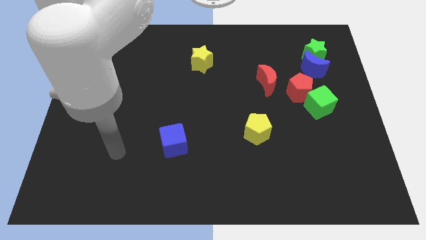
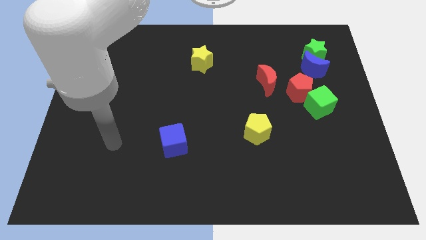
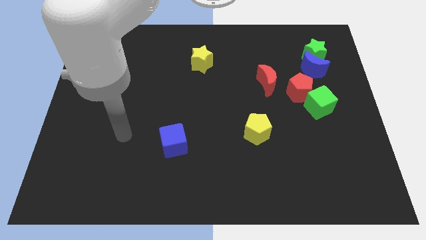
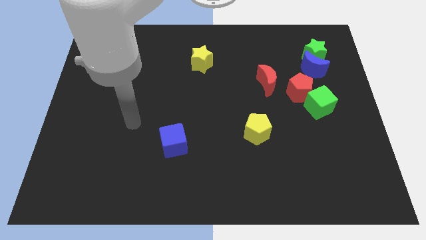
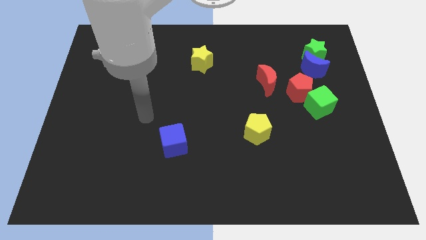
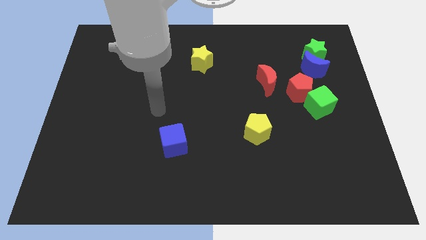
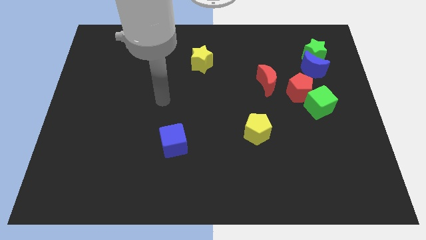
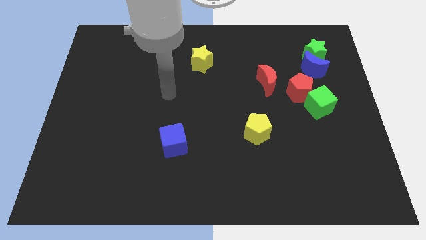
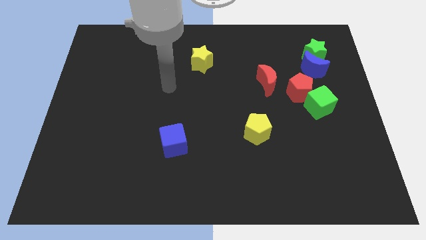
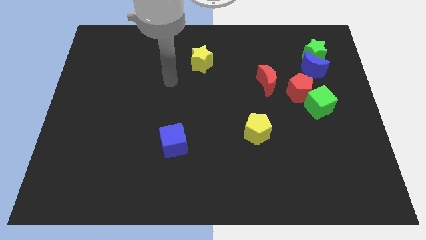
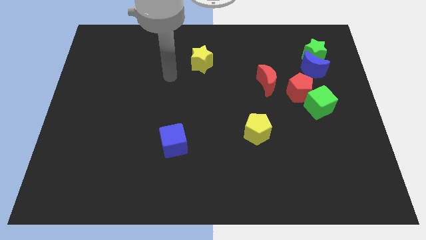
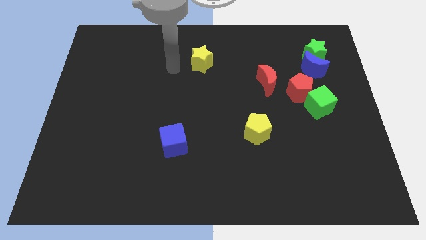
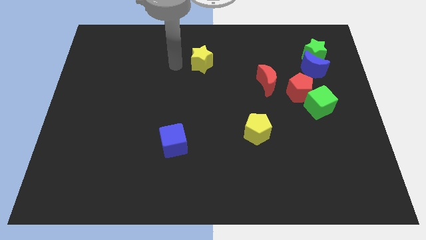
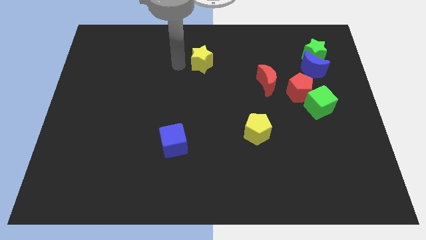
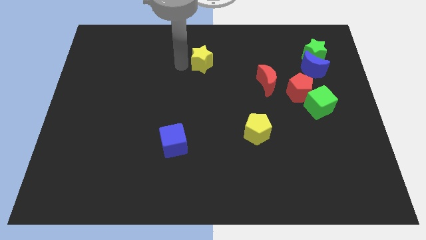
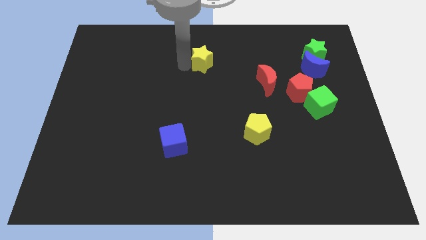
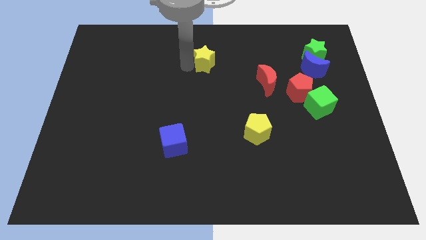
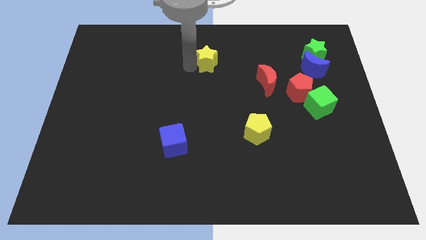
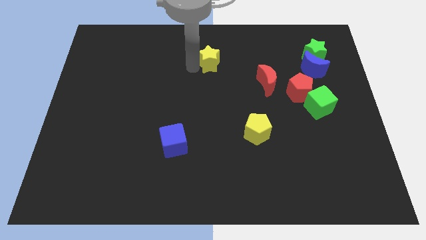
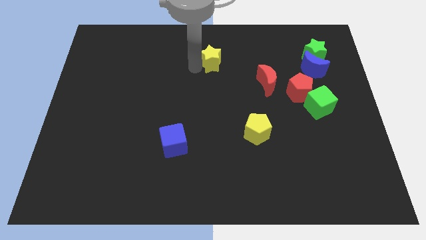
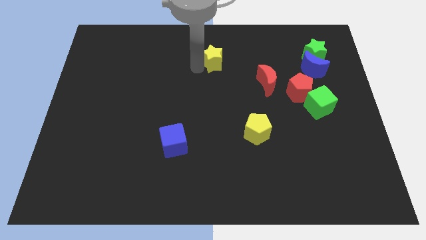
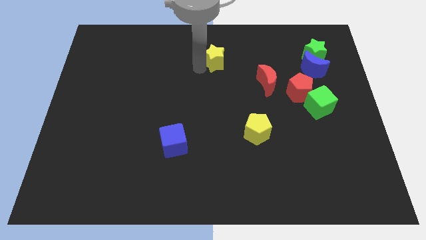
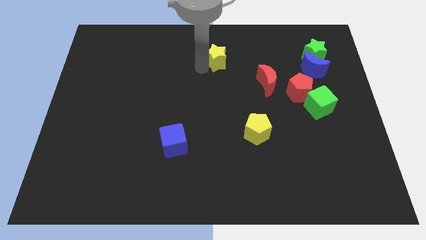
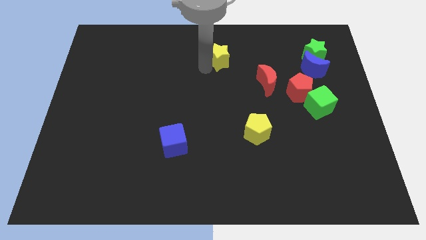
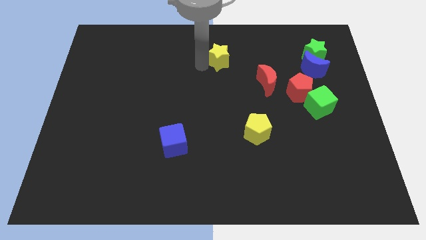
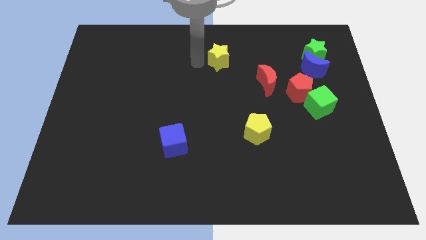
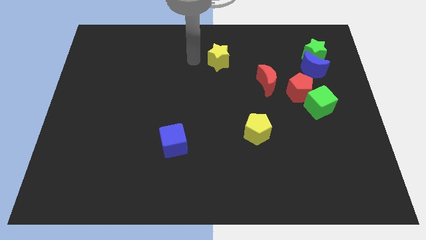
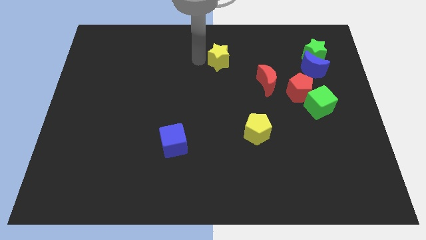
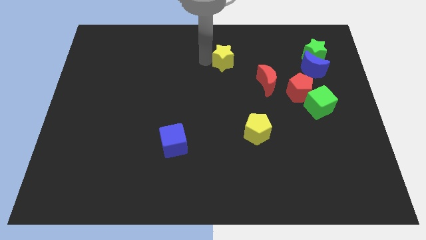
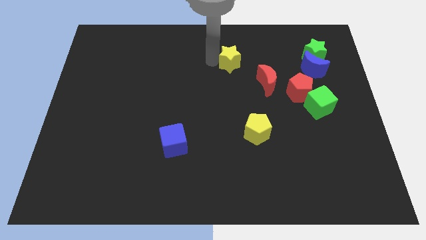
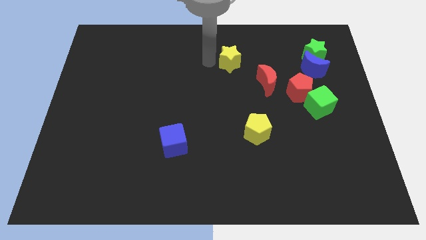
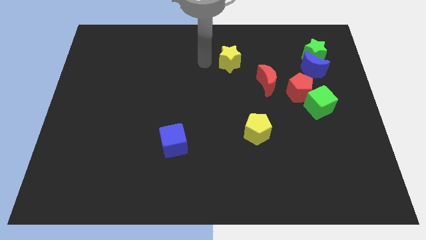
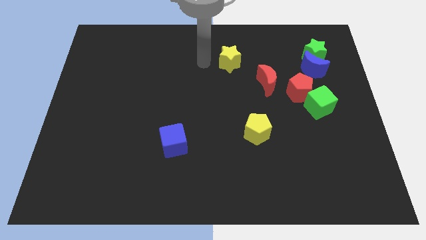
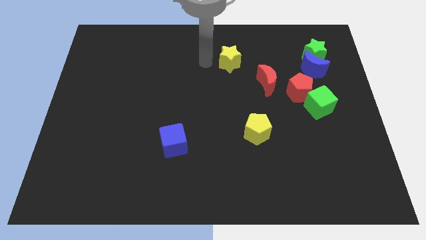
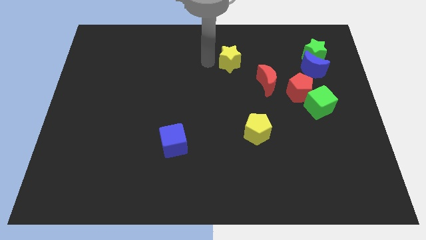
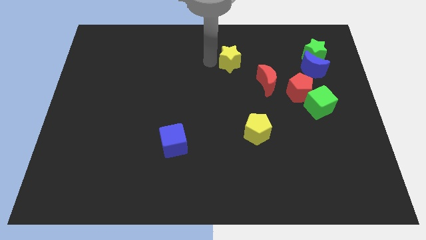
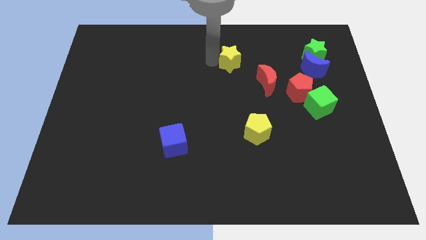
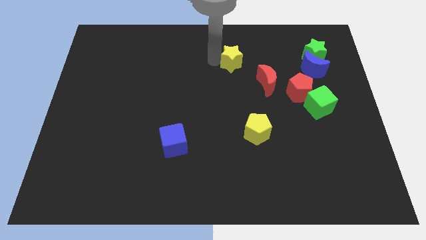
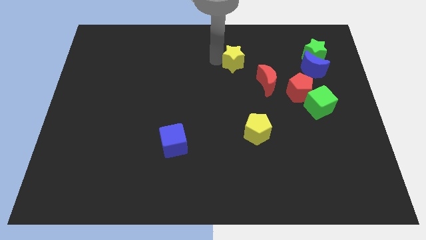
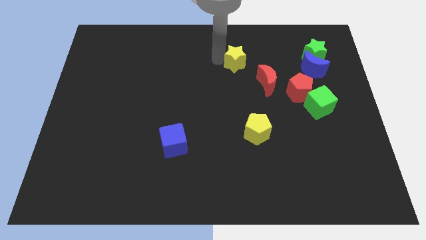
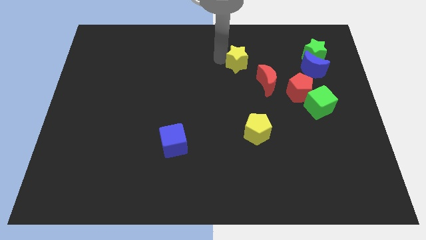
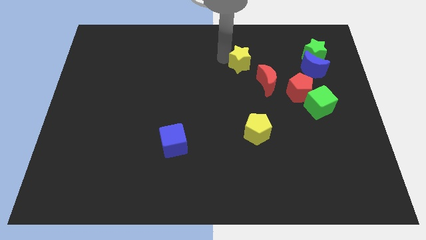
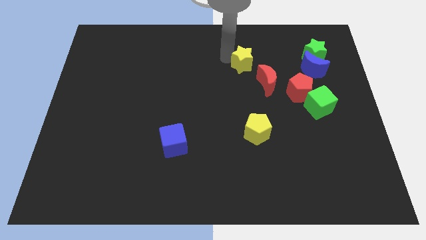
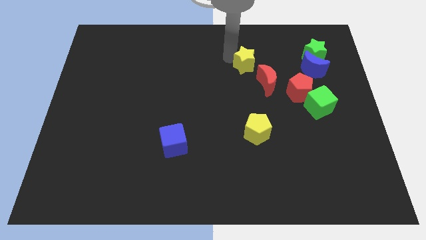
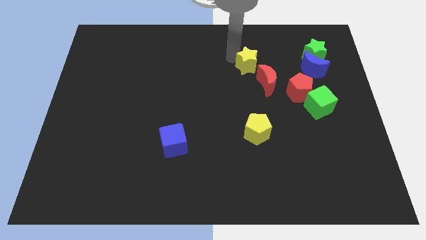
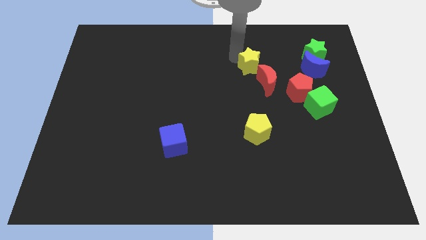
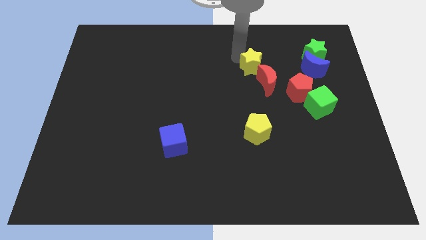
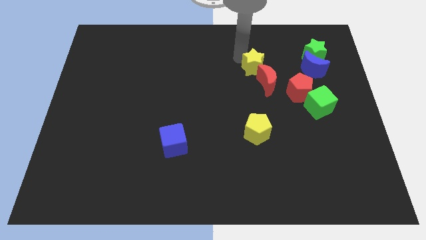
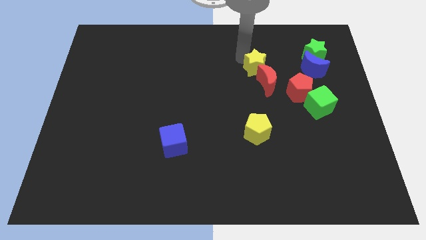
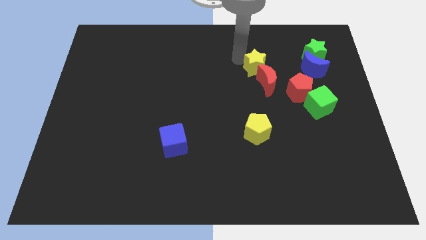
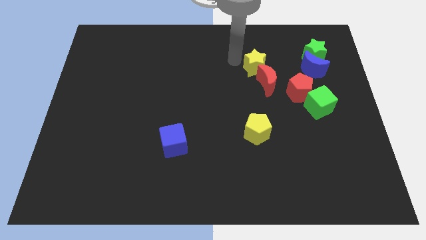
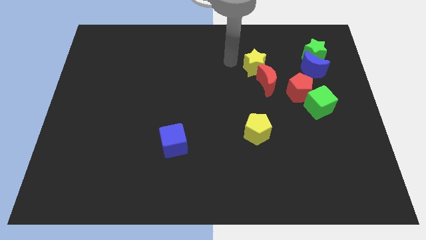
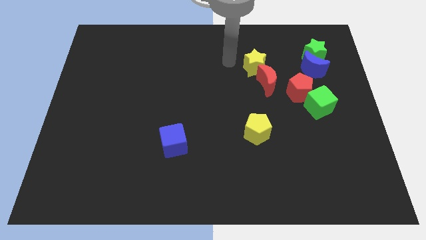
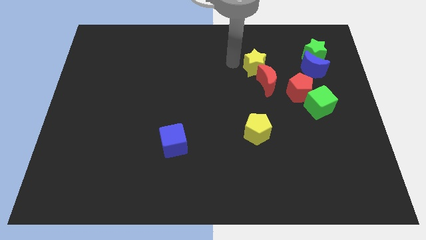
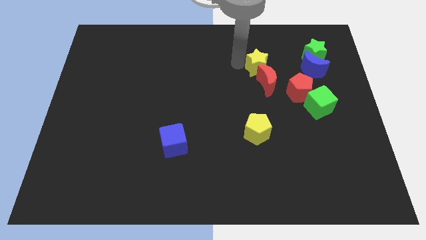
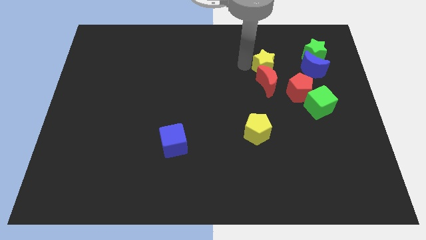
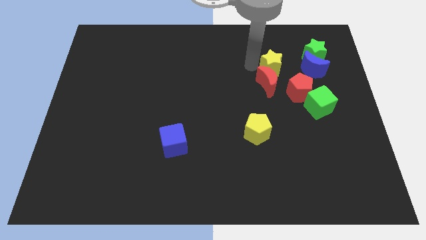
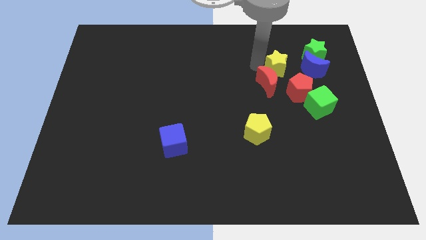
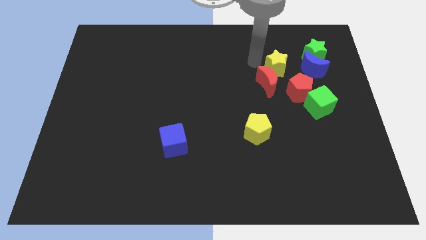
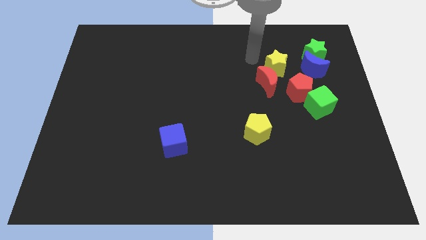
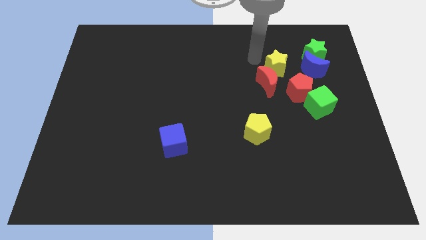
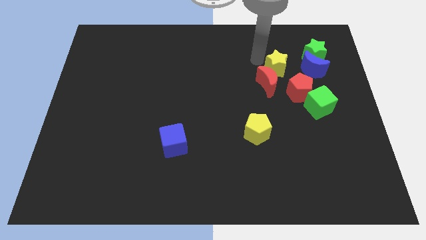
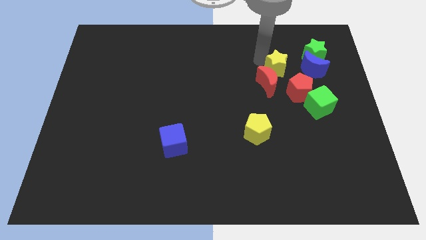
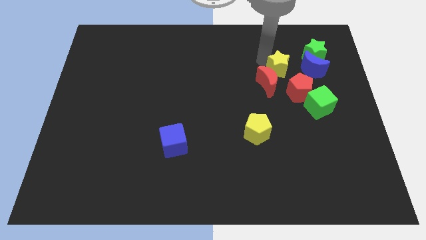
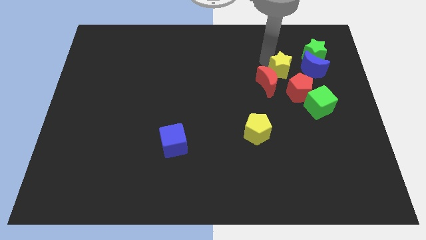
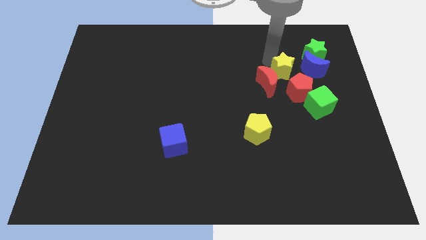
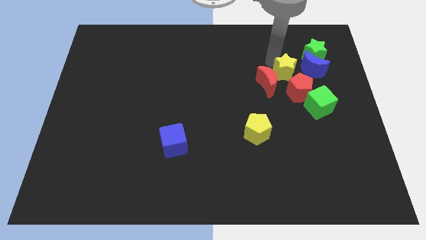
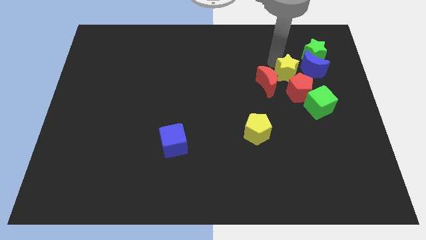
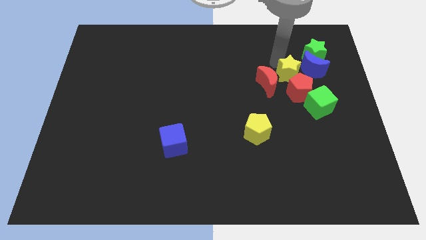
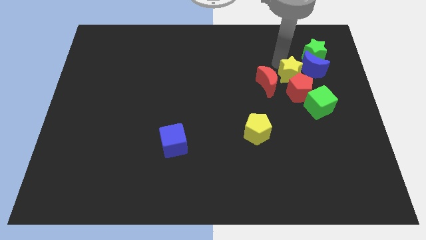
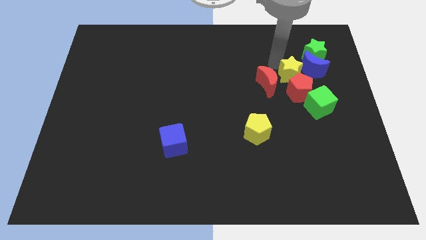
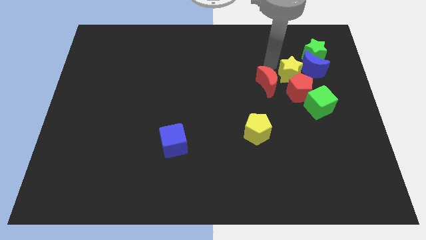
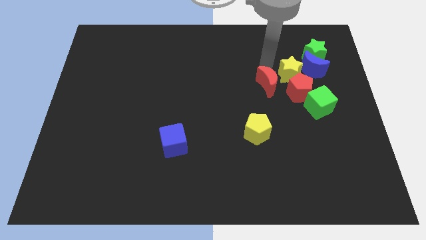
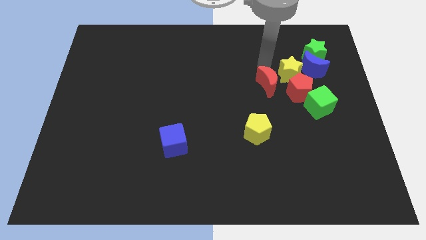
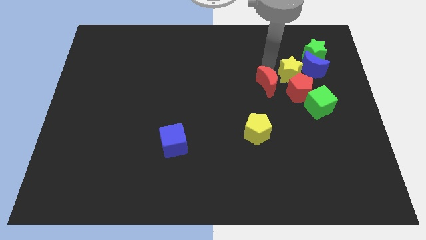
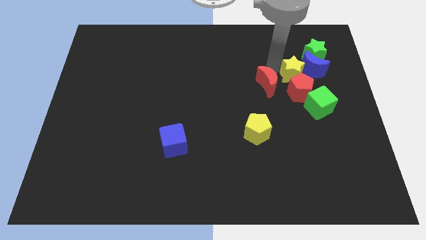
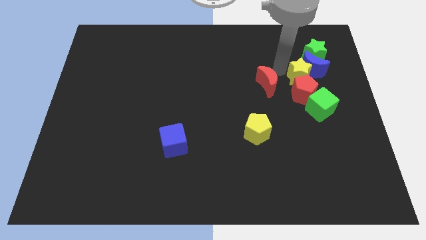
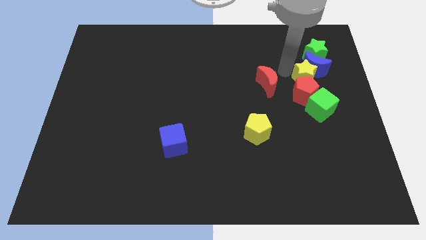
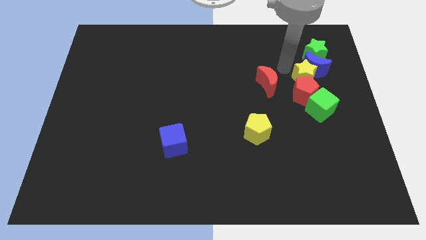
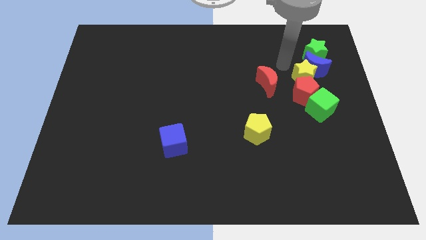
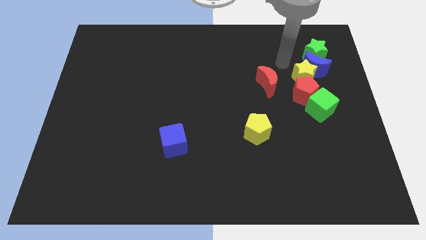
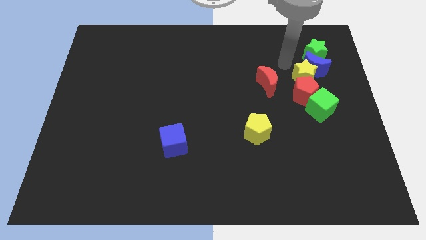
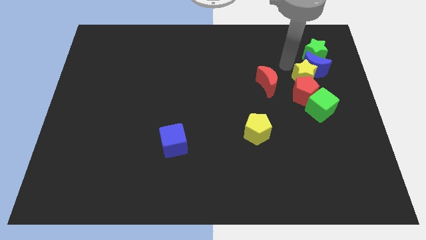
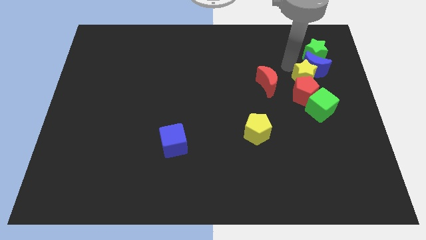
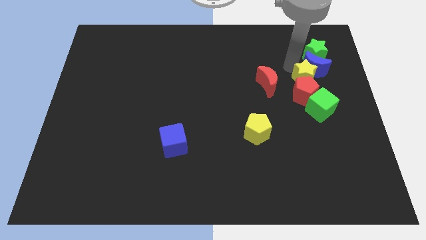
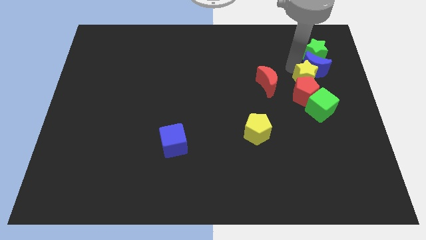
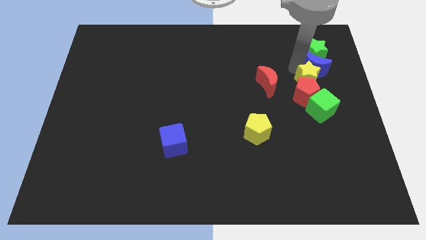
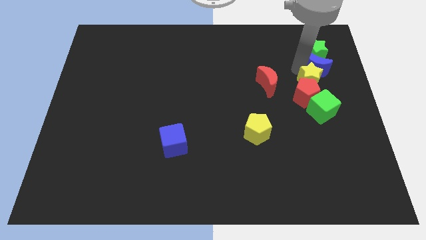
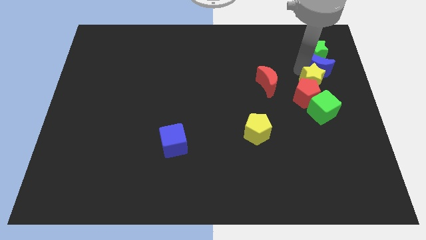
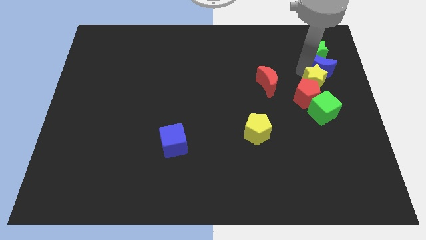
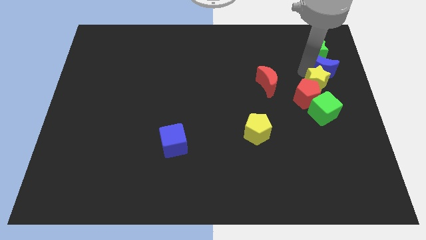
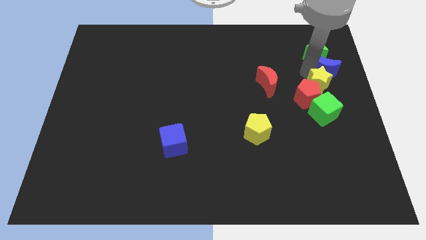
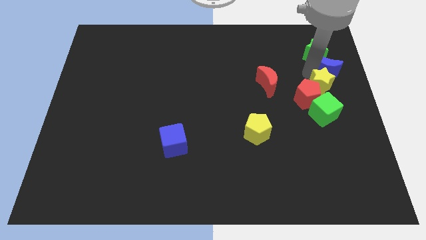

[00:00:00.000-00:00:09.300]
put the yellow star to the center right
